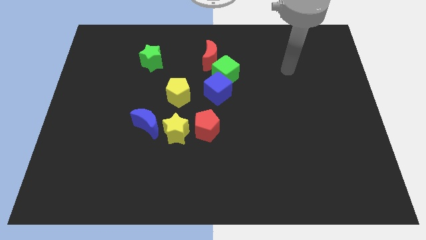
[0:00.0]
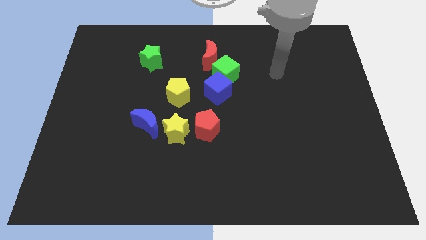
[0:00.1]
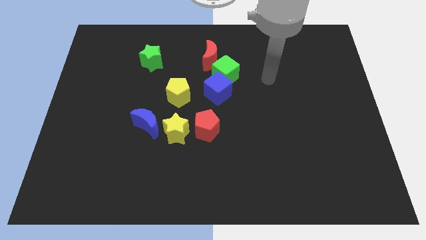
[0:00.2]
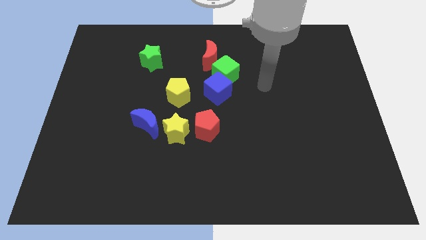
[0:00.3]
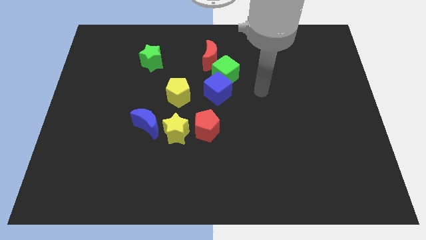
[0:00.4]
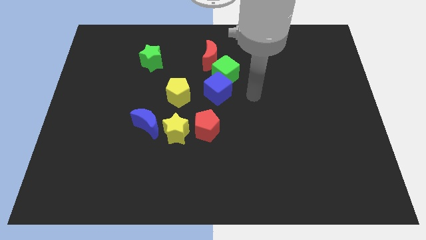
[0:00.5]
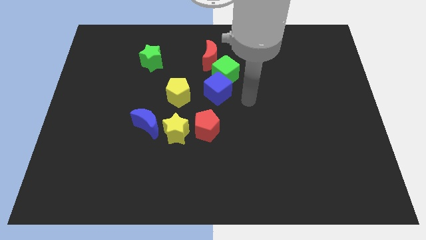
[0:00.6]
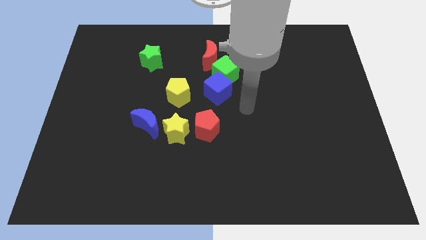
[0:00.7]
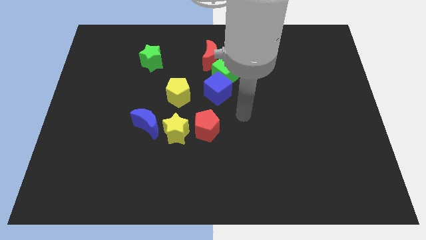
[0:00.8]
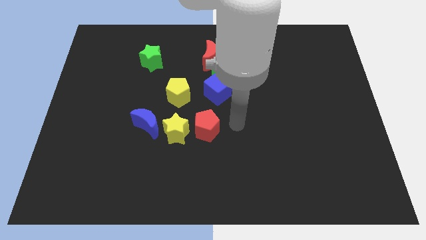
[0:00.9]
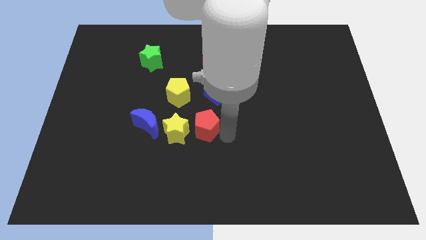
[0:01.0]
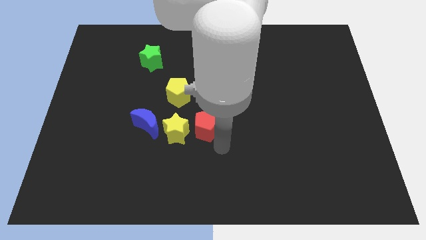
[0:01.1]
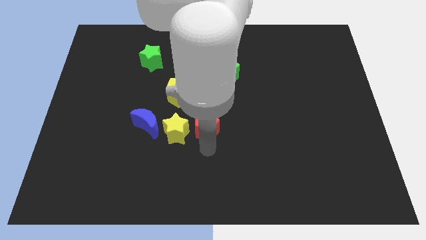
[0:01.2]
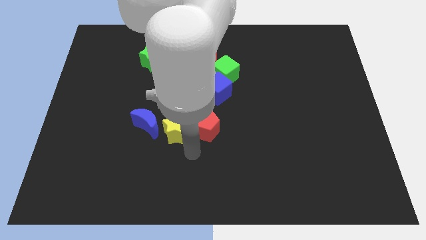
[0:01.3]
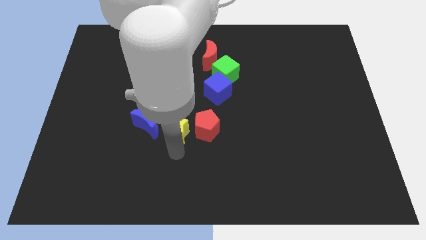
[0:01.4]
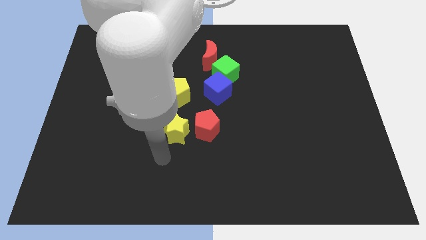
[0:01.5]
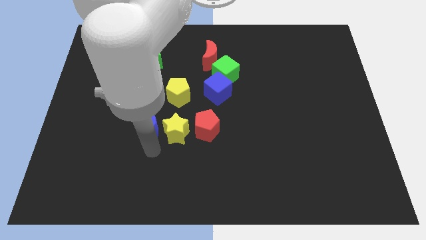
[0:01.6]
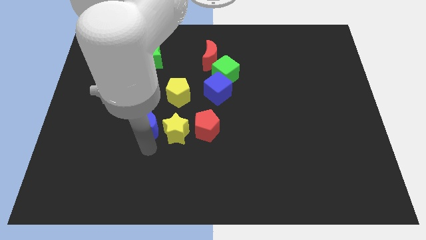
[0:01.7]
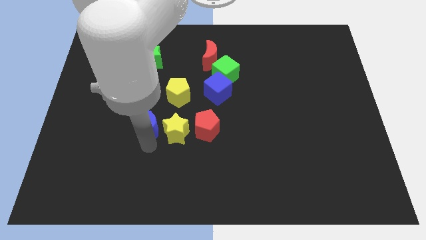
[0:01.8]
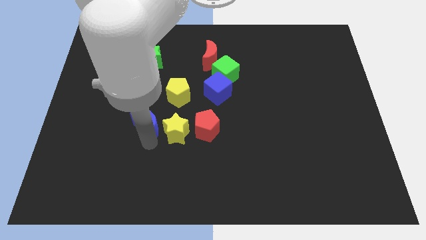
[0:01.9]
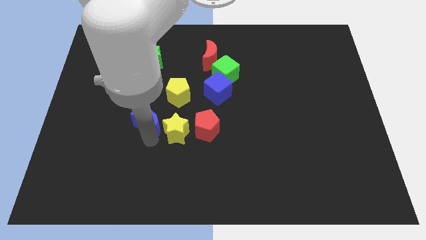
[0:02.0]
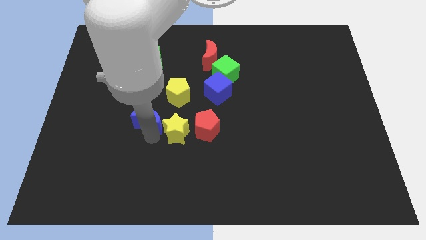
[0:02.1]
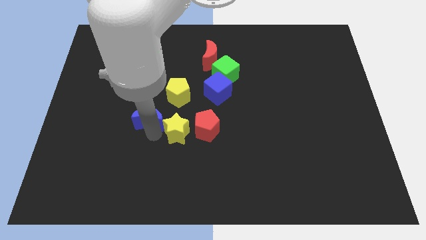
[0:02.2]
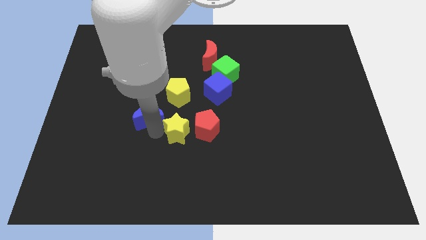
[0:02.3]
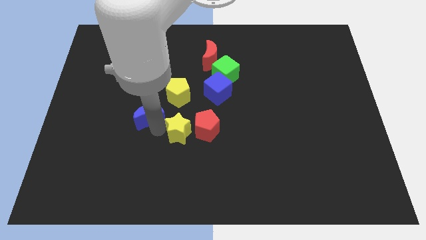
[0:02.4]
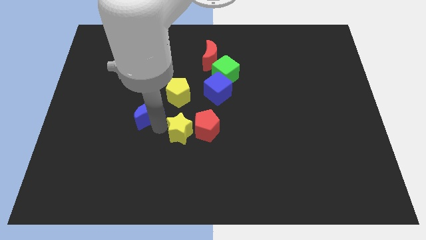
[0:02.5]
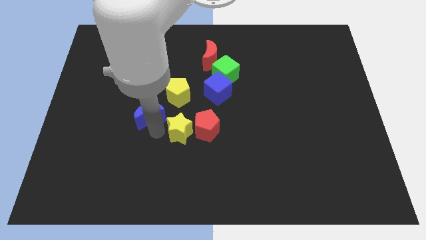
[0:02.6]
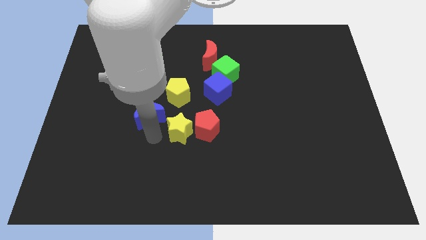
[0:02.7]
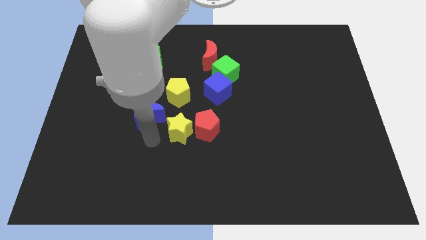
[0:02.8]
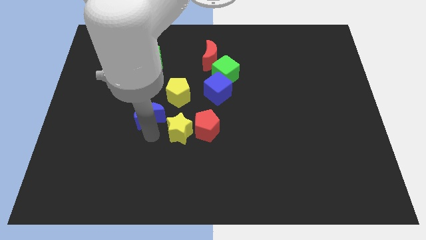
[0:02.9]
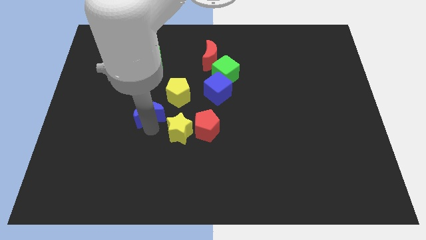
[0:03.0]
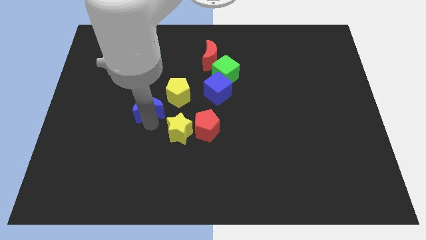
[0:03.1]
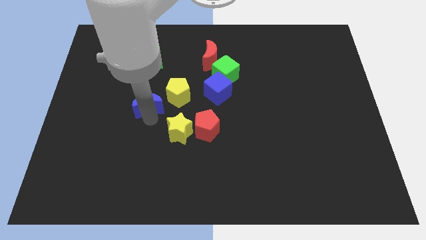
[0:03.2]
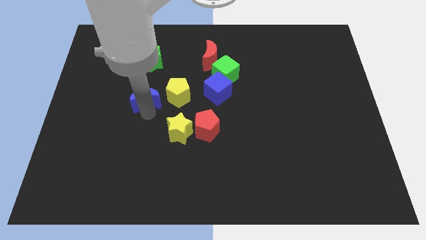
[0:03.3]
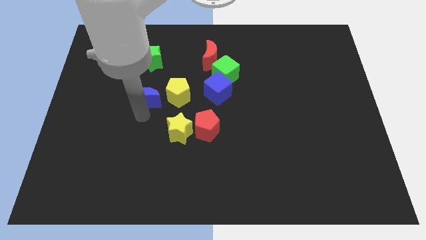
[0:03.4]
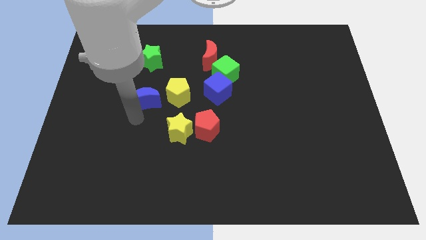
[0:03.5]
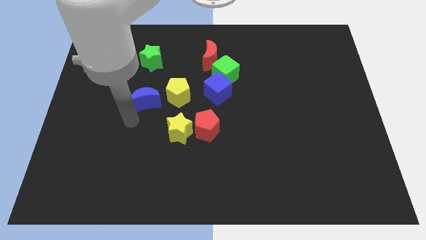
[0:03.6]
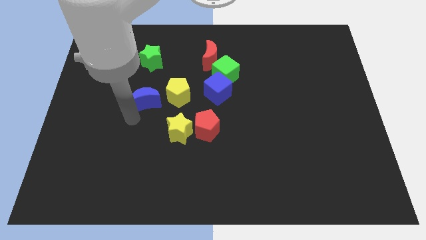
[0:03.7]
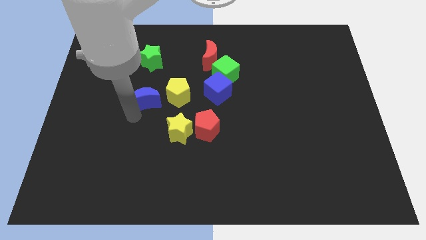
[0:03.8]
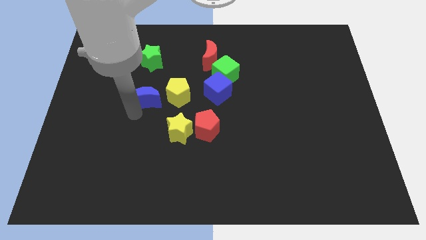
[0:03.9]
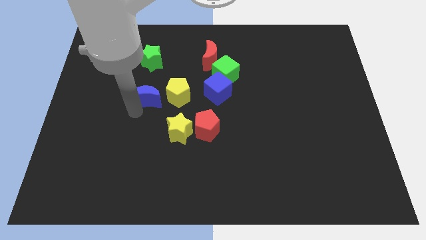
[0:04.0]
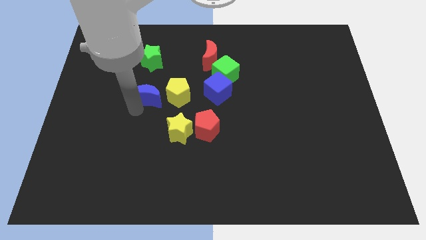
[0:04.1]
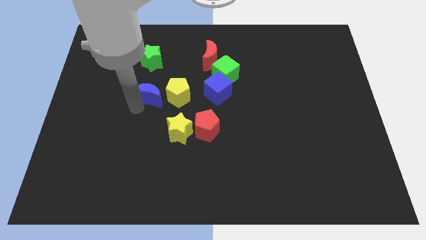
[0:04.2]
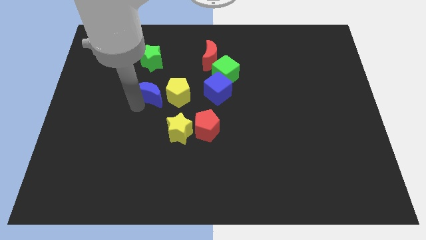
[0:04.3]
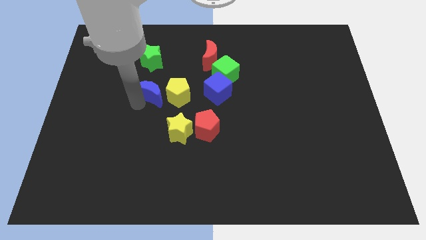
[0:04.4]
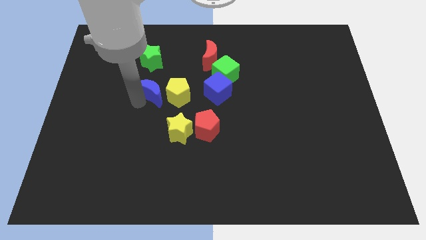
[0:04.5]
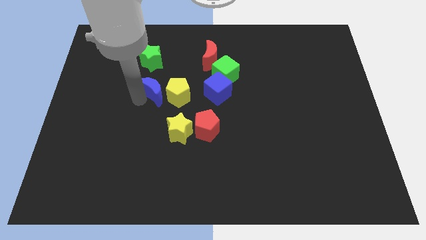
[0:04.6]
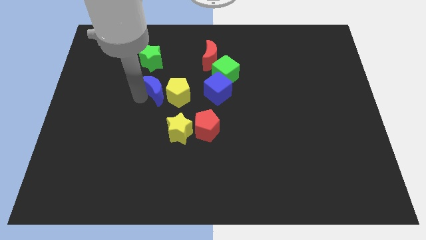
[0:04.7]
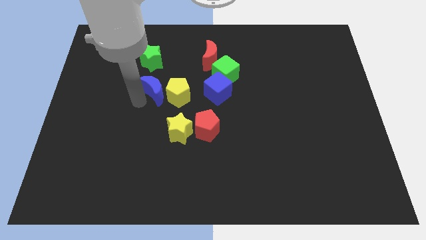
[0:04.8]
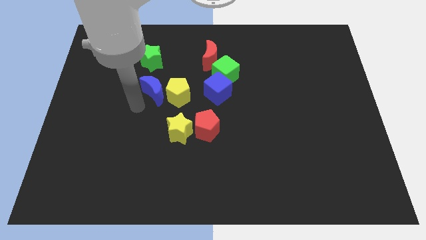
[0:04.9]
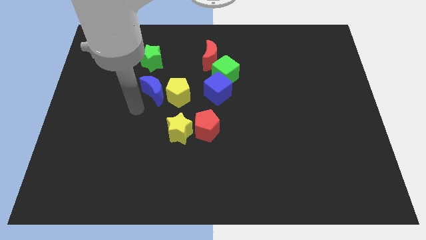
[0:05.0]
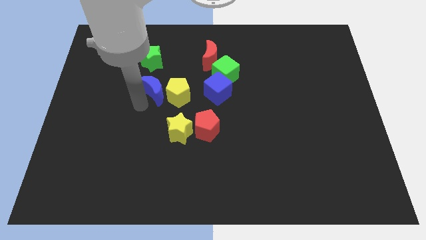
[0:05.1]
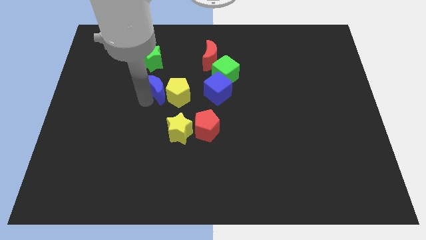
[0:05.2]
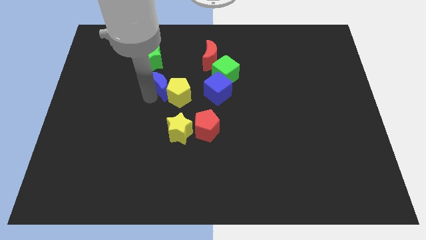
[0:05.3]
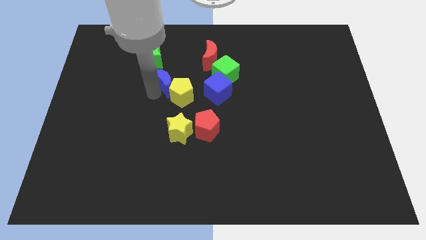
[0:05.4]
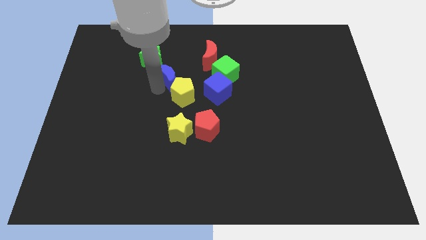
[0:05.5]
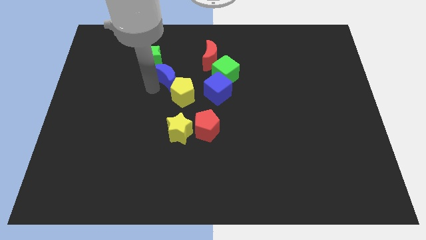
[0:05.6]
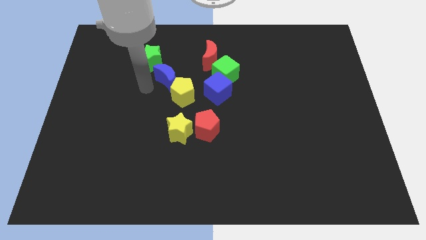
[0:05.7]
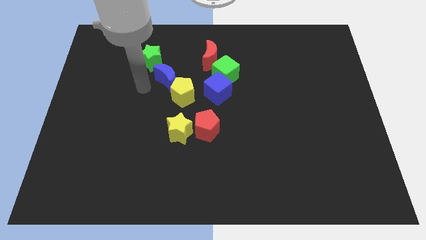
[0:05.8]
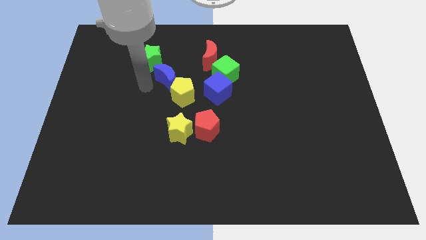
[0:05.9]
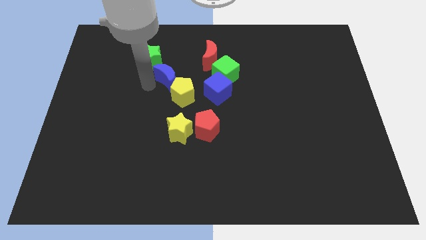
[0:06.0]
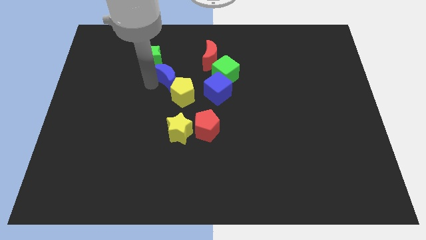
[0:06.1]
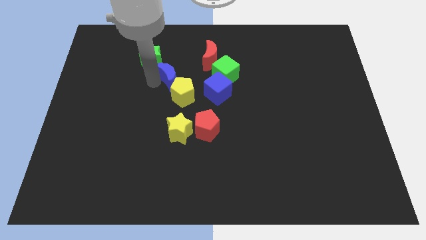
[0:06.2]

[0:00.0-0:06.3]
put the blue moon to the bottom left side of the red moon

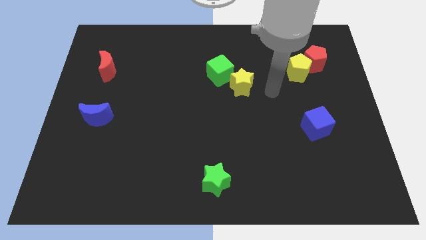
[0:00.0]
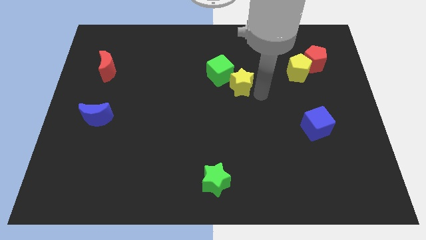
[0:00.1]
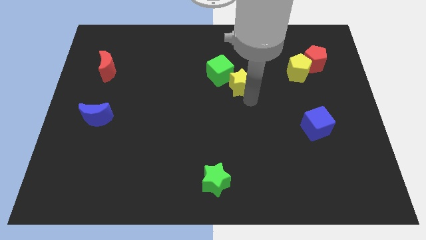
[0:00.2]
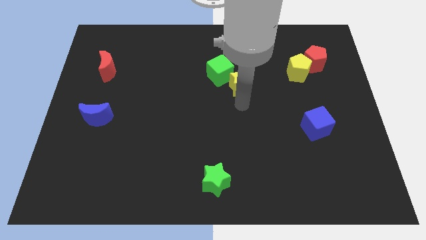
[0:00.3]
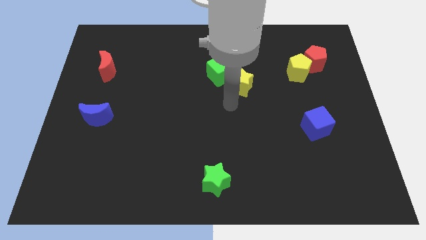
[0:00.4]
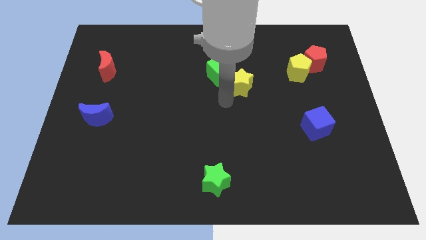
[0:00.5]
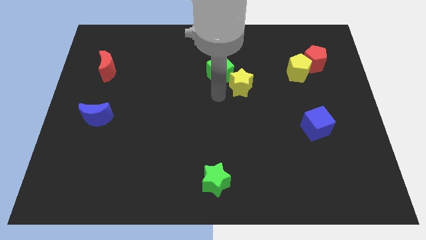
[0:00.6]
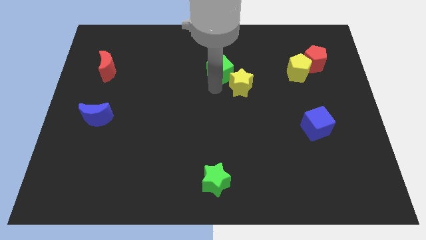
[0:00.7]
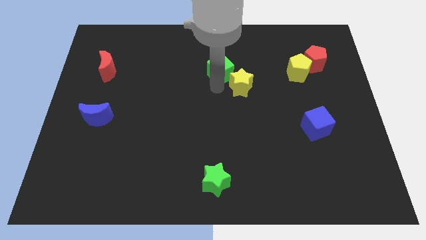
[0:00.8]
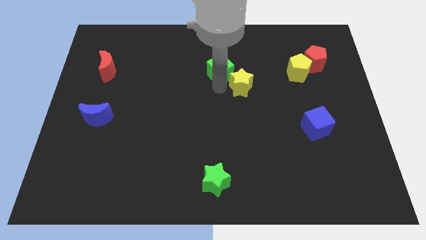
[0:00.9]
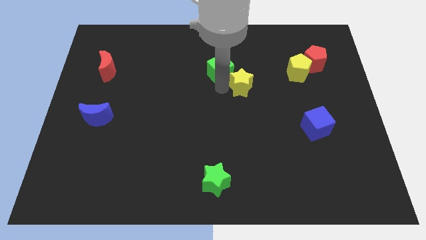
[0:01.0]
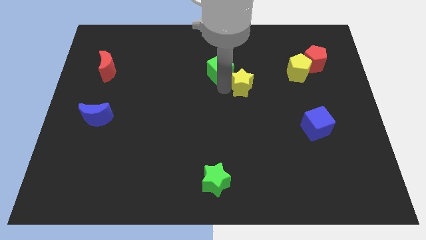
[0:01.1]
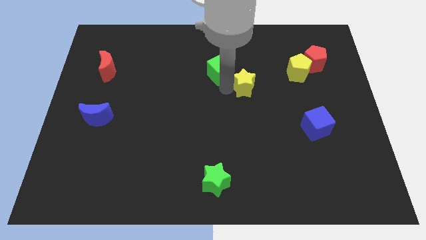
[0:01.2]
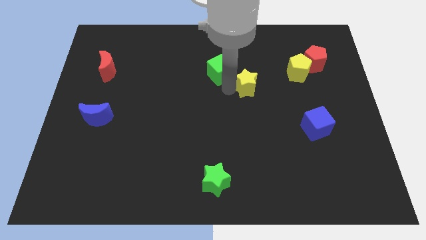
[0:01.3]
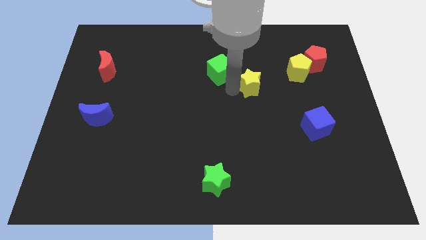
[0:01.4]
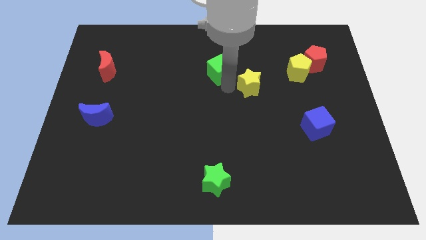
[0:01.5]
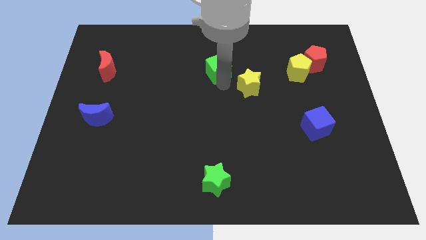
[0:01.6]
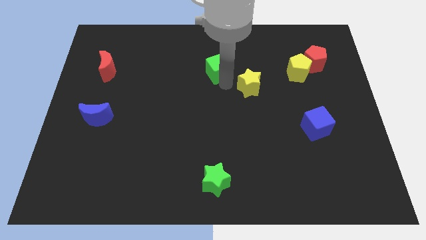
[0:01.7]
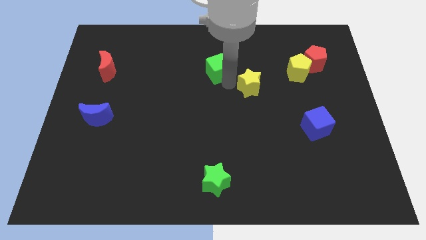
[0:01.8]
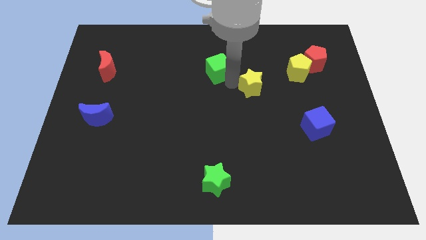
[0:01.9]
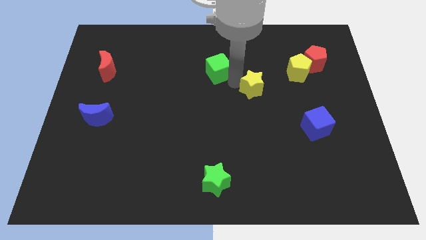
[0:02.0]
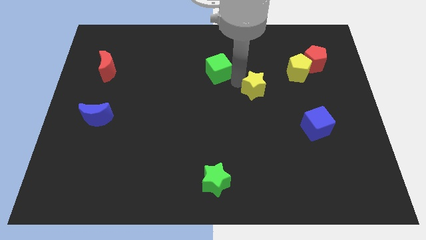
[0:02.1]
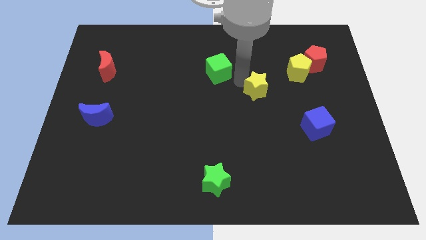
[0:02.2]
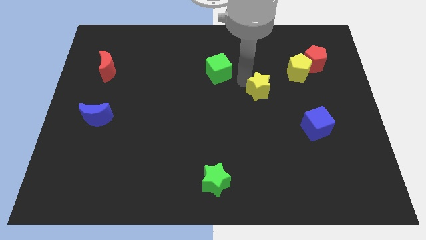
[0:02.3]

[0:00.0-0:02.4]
put the yellow star diagonally down and to the left of the yellow pentagon
